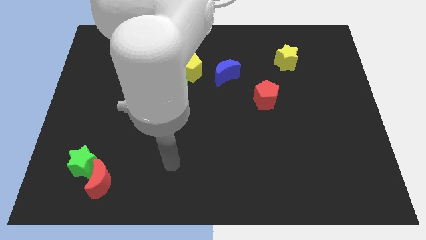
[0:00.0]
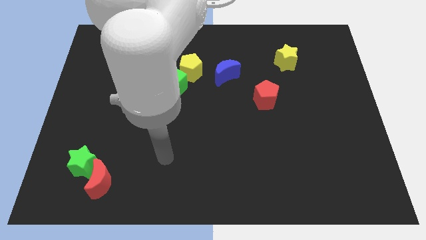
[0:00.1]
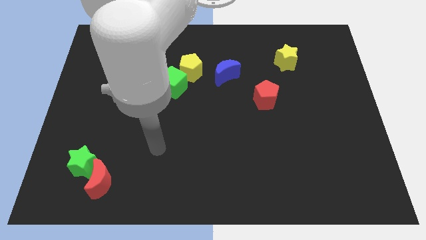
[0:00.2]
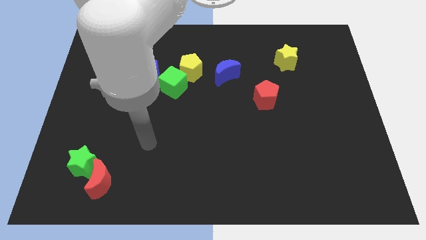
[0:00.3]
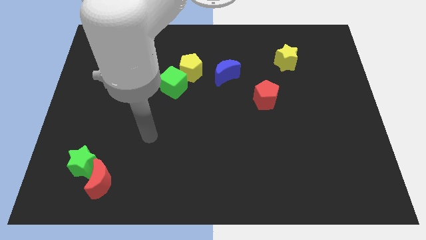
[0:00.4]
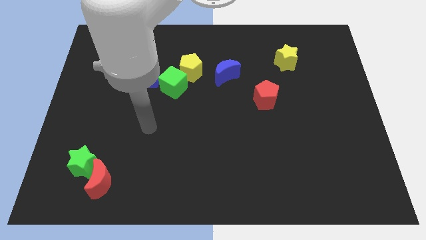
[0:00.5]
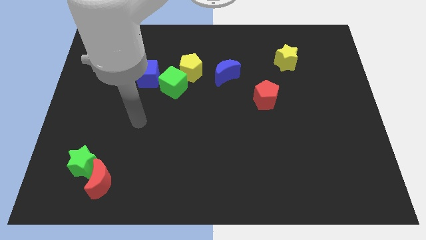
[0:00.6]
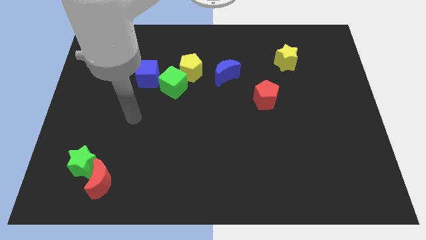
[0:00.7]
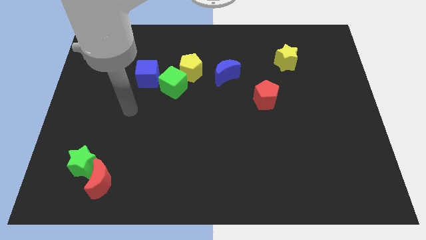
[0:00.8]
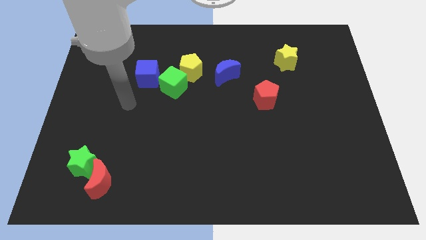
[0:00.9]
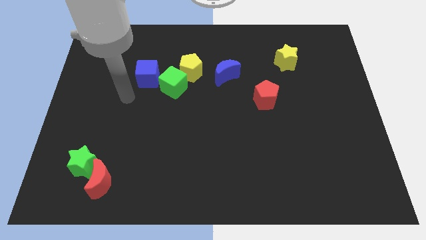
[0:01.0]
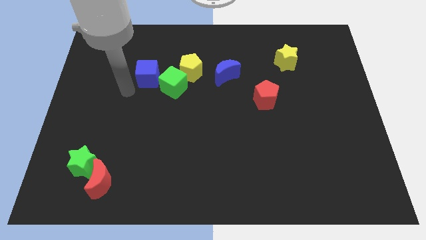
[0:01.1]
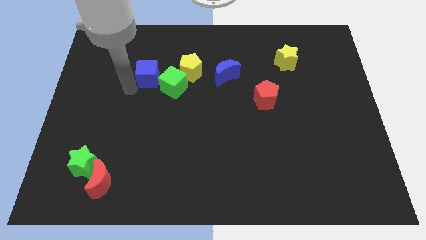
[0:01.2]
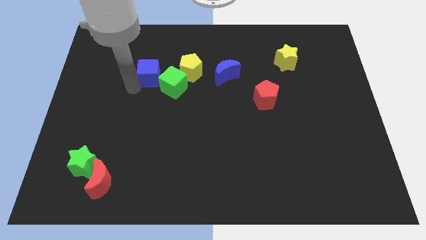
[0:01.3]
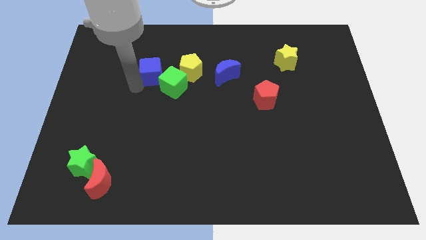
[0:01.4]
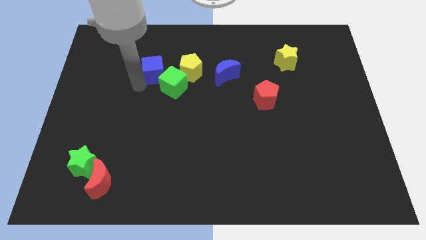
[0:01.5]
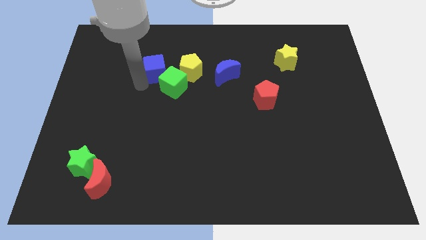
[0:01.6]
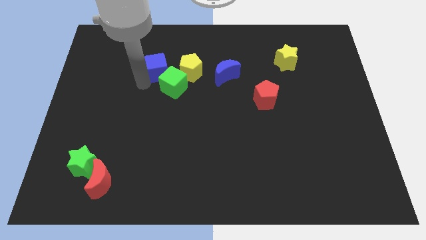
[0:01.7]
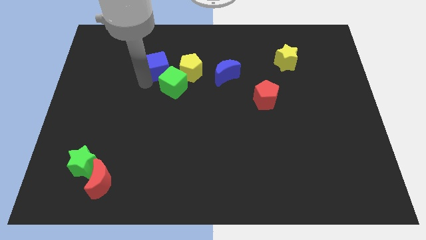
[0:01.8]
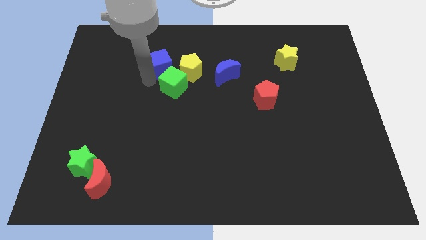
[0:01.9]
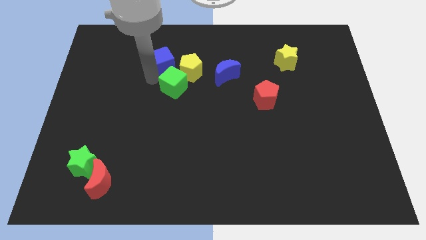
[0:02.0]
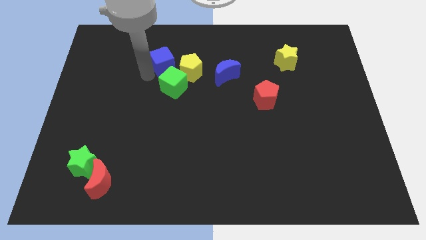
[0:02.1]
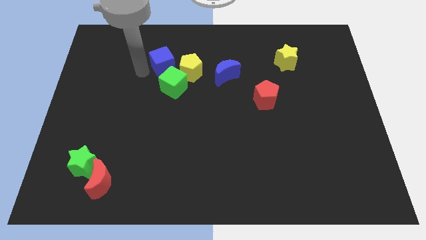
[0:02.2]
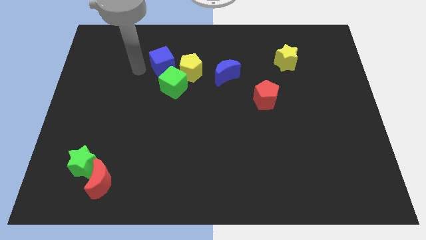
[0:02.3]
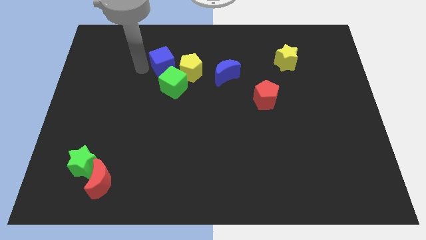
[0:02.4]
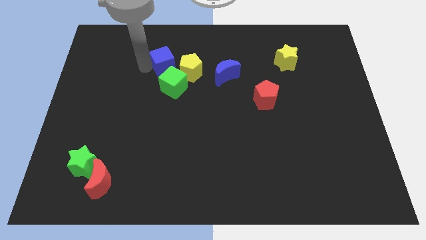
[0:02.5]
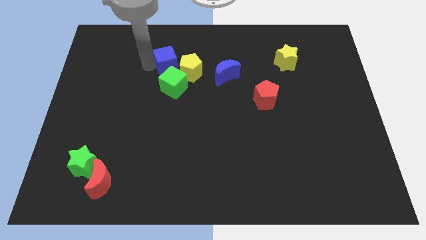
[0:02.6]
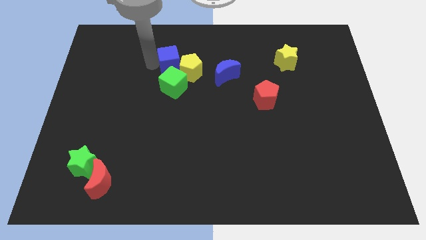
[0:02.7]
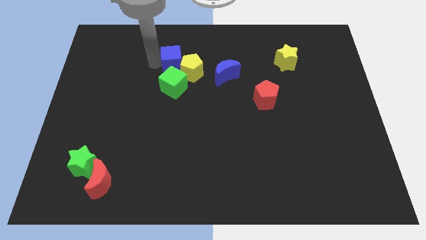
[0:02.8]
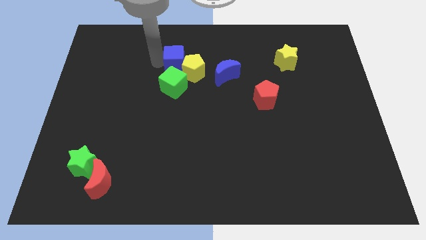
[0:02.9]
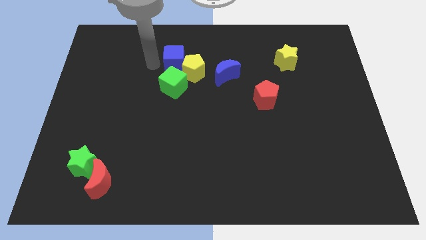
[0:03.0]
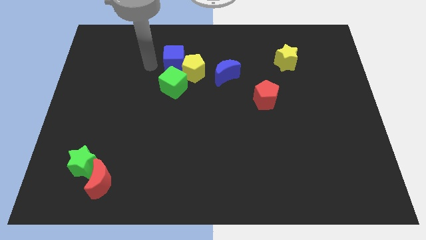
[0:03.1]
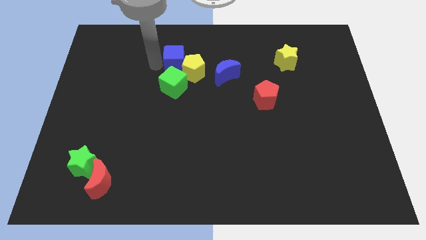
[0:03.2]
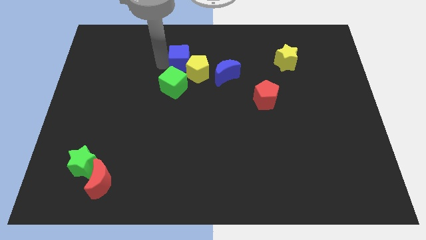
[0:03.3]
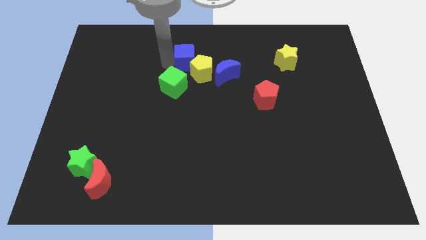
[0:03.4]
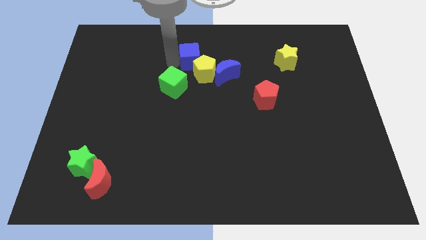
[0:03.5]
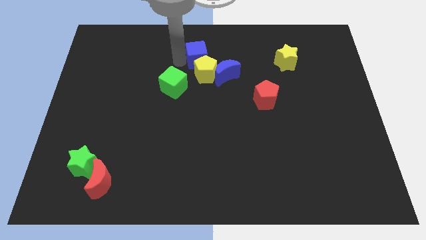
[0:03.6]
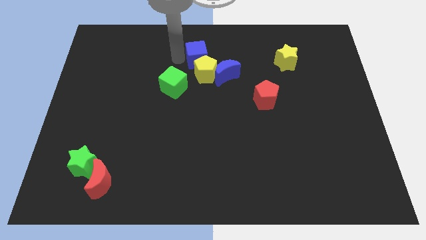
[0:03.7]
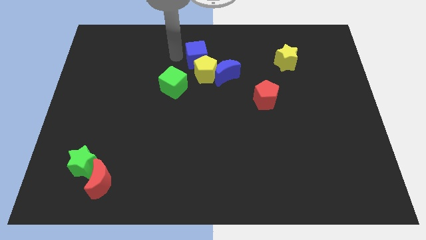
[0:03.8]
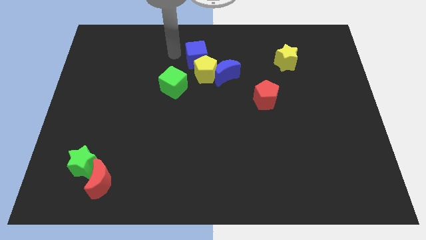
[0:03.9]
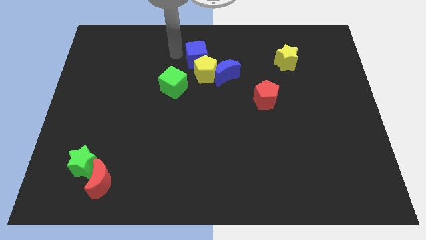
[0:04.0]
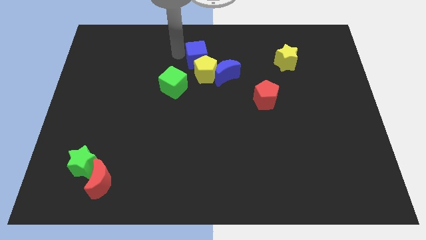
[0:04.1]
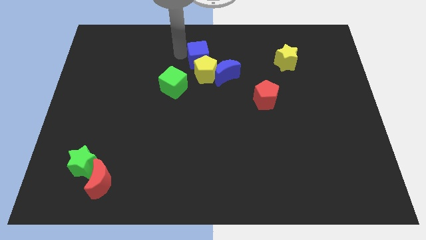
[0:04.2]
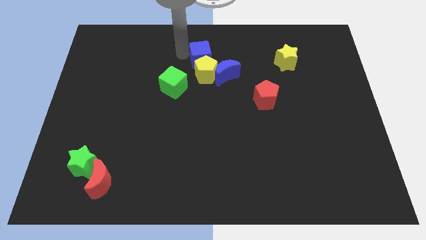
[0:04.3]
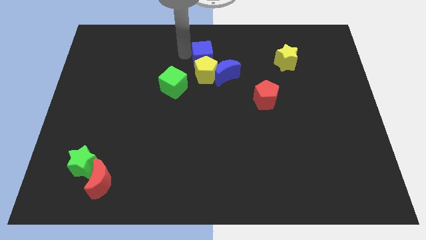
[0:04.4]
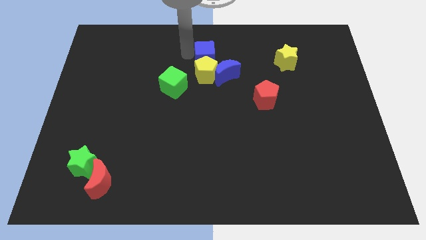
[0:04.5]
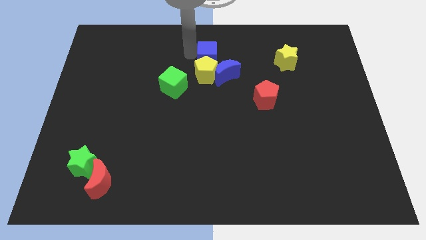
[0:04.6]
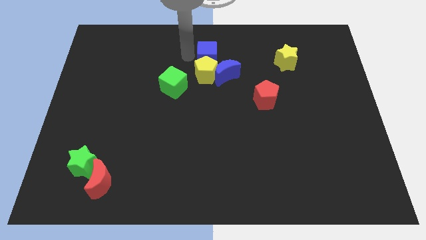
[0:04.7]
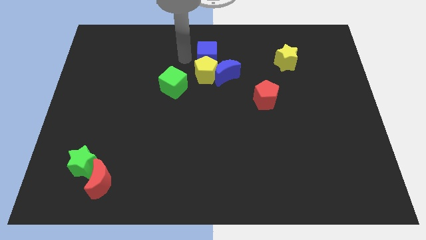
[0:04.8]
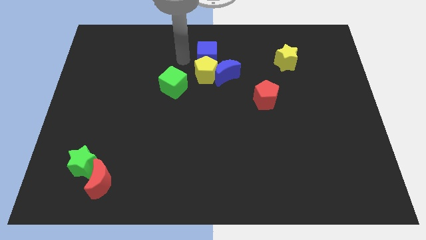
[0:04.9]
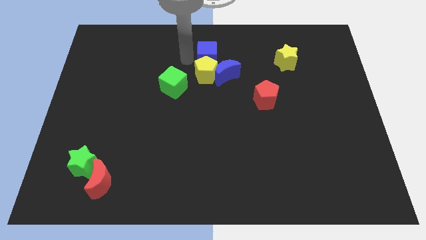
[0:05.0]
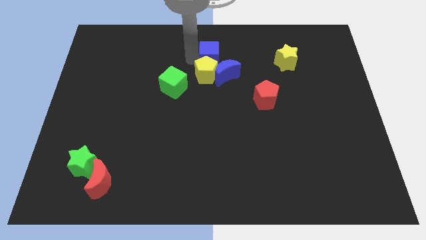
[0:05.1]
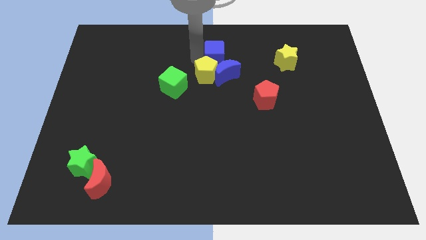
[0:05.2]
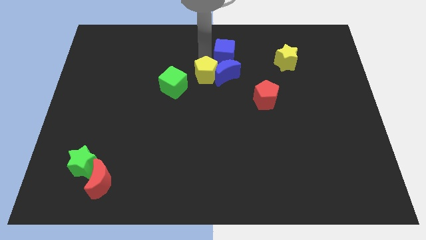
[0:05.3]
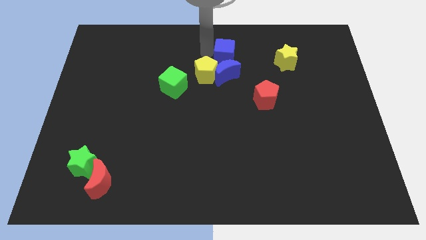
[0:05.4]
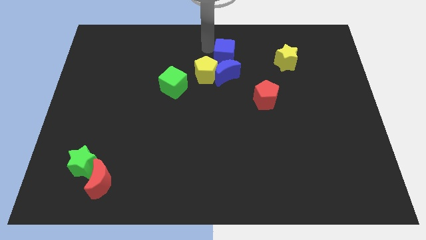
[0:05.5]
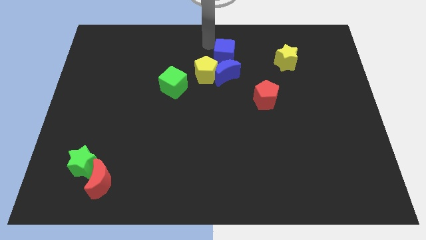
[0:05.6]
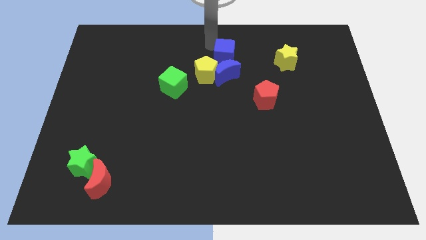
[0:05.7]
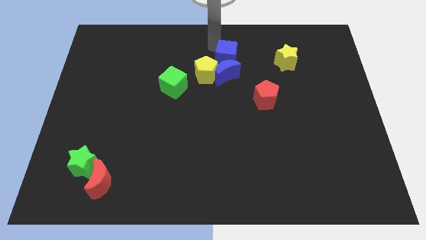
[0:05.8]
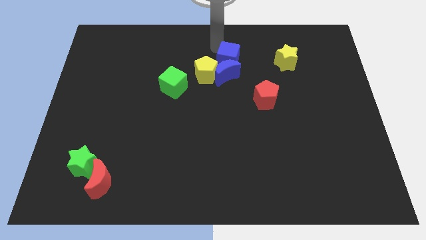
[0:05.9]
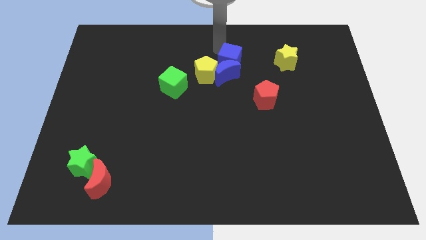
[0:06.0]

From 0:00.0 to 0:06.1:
put the blue cube to the right of the yellow pentagon

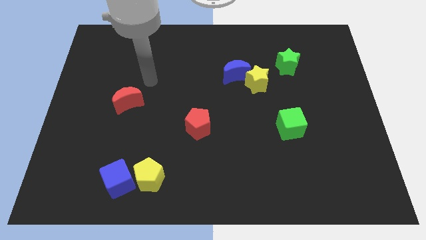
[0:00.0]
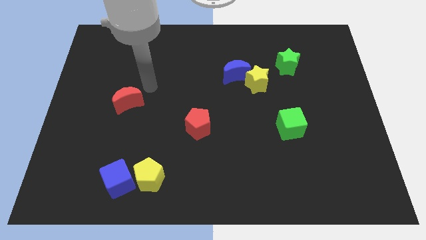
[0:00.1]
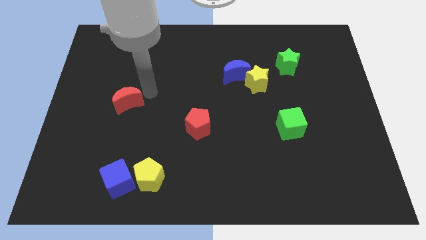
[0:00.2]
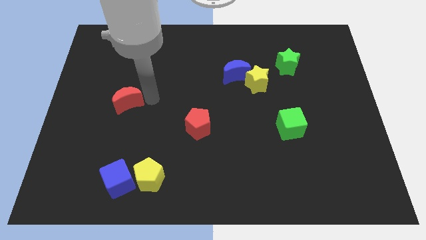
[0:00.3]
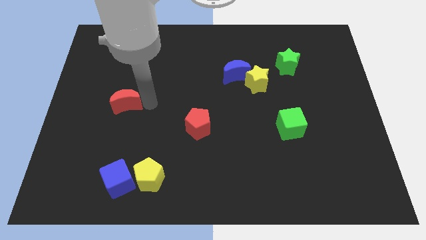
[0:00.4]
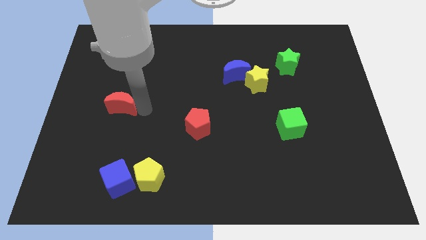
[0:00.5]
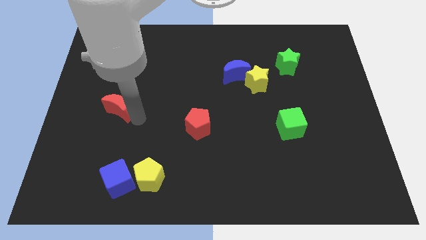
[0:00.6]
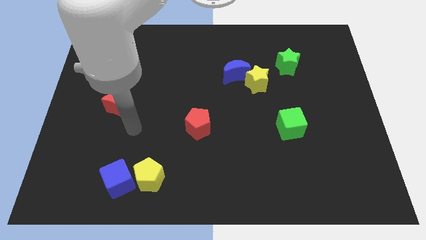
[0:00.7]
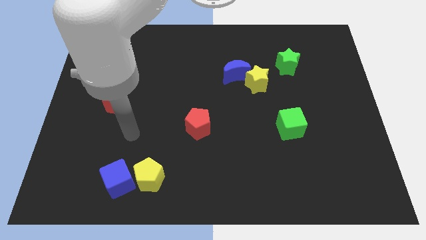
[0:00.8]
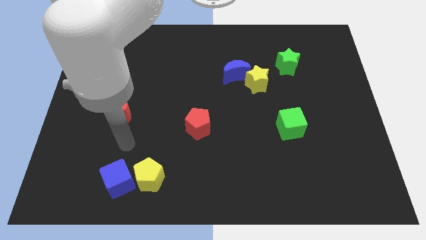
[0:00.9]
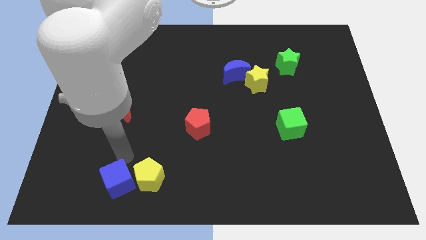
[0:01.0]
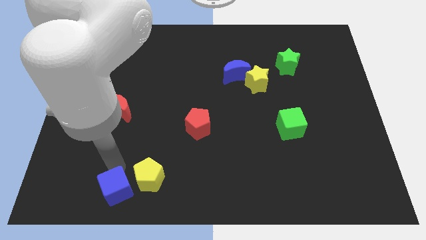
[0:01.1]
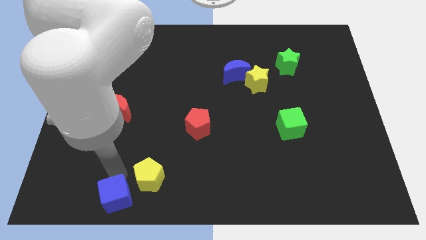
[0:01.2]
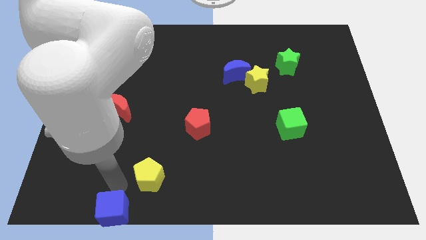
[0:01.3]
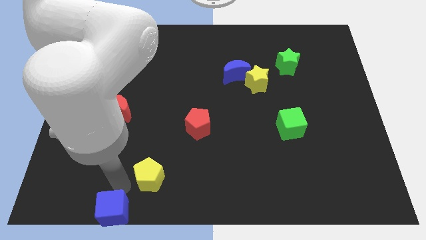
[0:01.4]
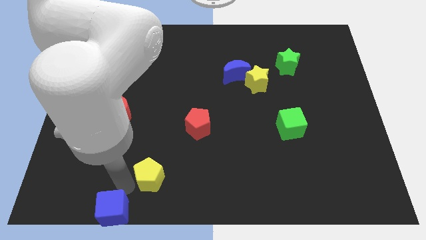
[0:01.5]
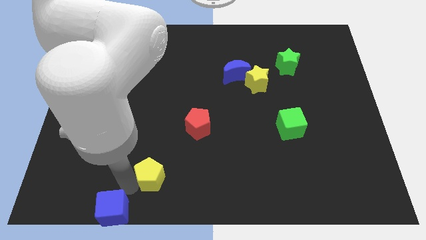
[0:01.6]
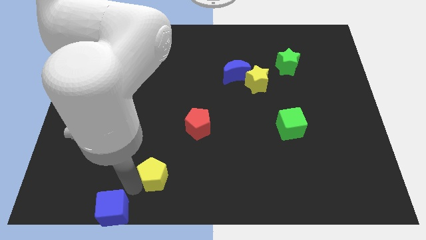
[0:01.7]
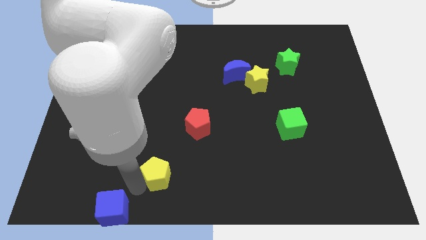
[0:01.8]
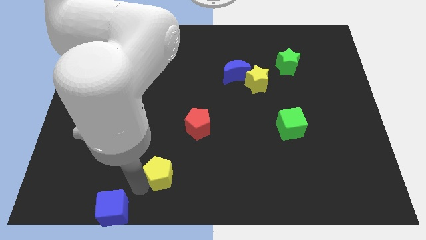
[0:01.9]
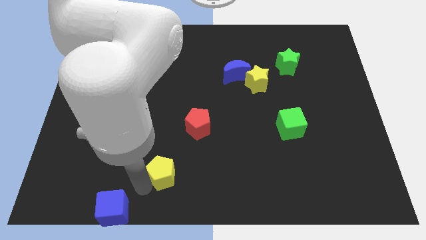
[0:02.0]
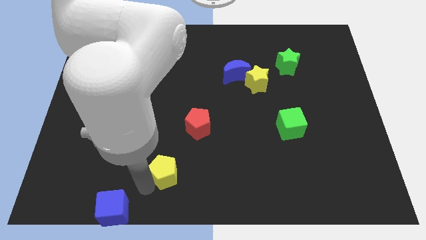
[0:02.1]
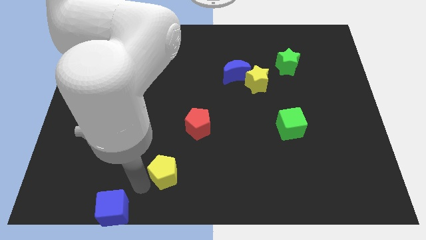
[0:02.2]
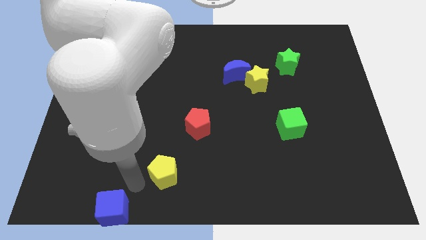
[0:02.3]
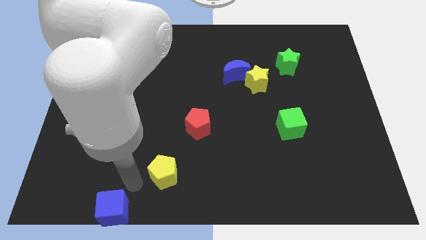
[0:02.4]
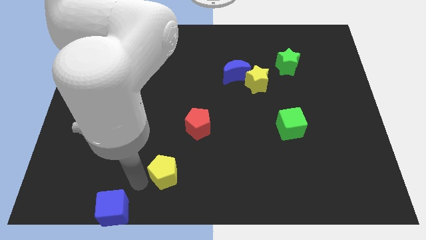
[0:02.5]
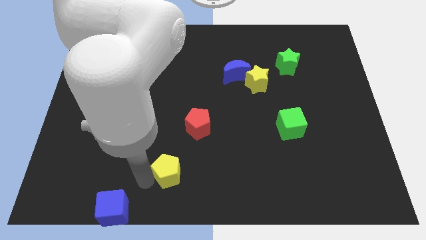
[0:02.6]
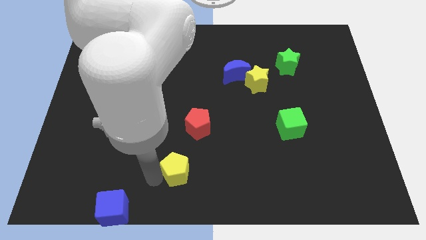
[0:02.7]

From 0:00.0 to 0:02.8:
slide the yellow pentagon to the bottom side of the red pentagon
